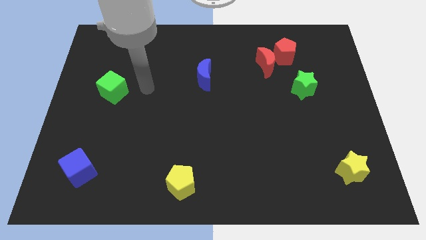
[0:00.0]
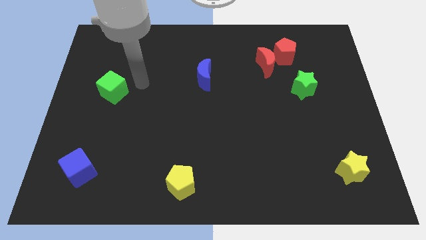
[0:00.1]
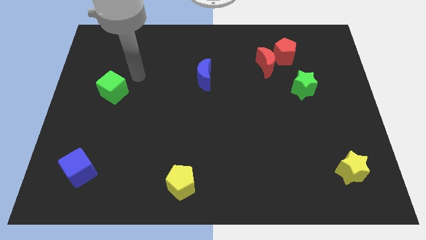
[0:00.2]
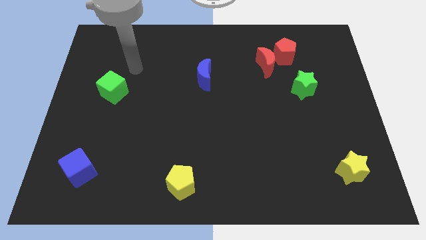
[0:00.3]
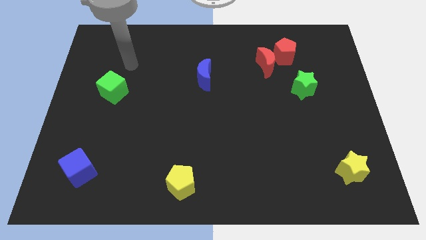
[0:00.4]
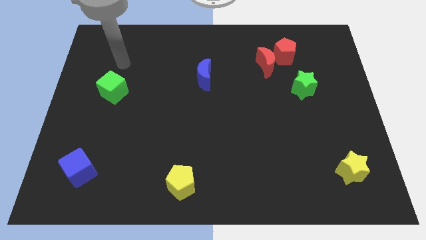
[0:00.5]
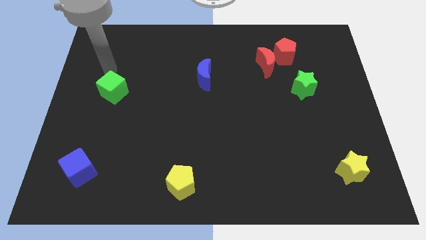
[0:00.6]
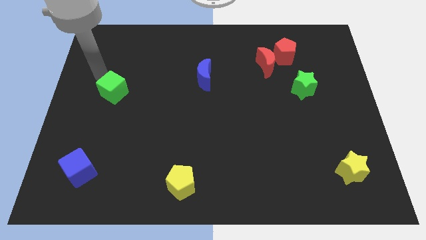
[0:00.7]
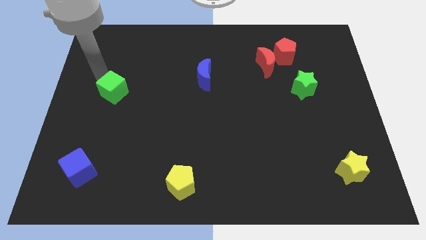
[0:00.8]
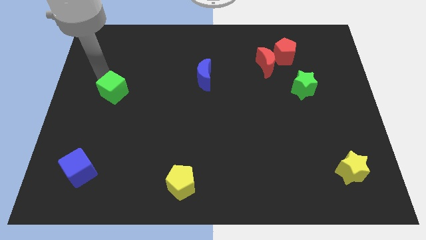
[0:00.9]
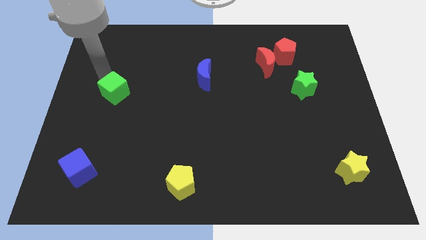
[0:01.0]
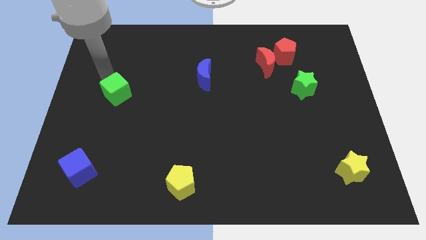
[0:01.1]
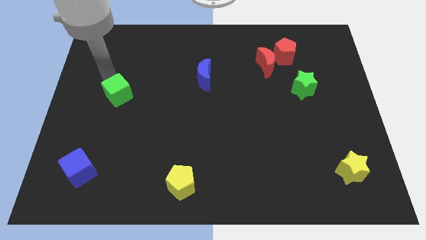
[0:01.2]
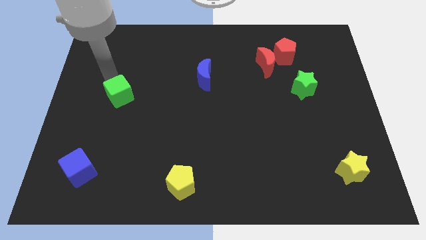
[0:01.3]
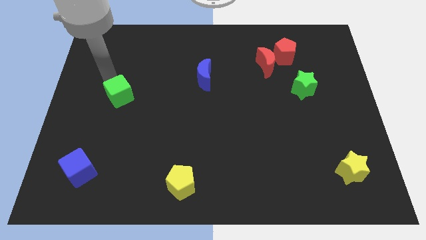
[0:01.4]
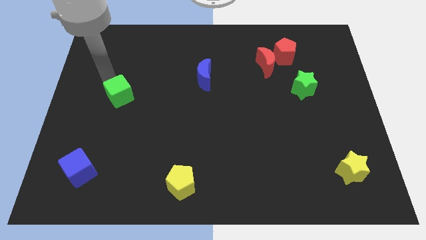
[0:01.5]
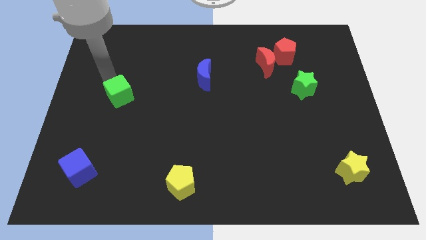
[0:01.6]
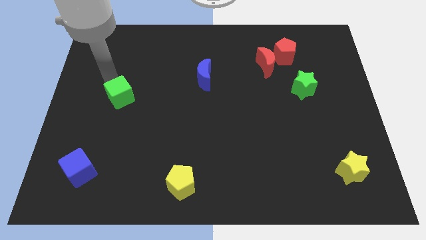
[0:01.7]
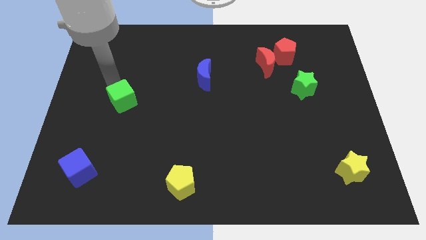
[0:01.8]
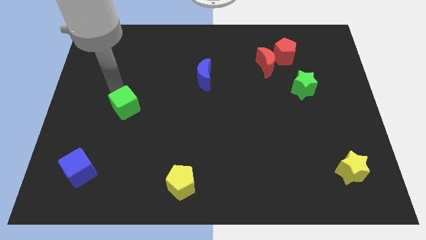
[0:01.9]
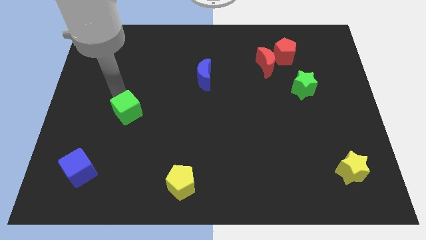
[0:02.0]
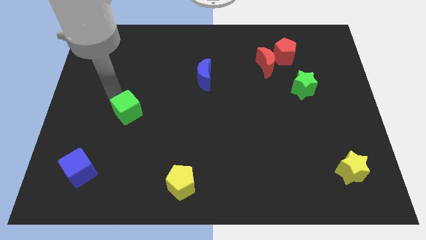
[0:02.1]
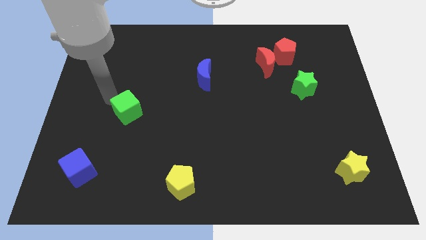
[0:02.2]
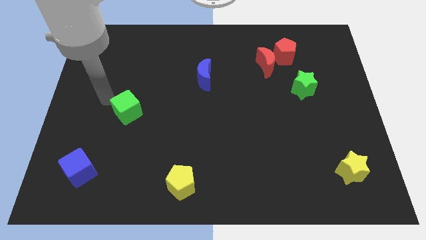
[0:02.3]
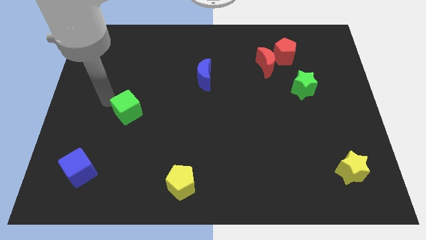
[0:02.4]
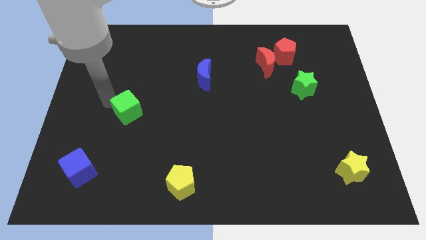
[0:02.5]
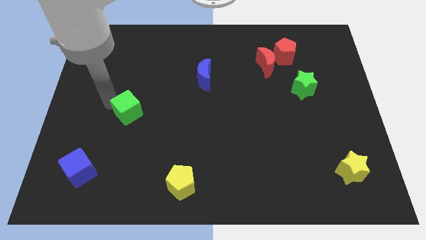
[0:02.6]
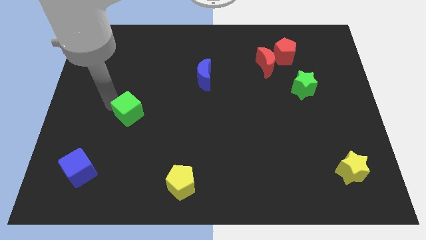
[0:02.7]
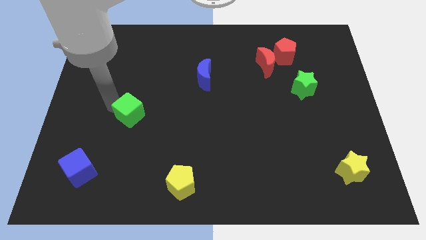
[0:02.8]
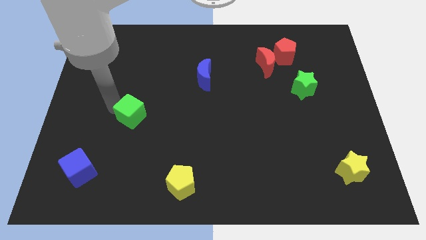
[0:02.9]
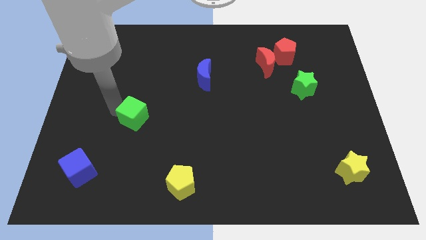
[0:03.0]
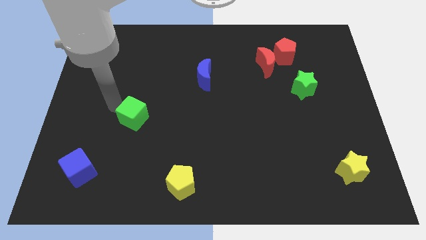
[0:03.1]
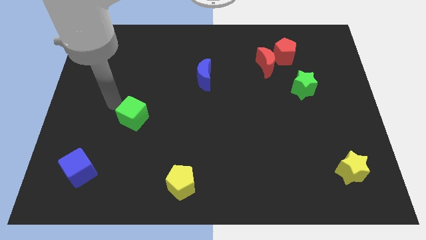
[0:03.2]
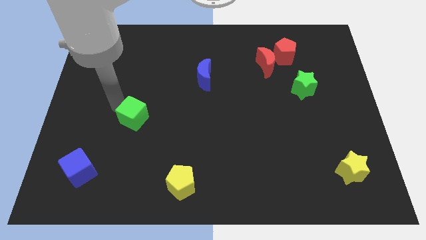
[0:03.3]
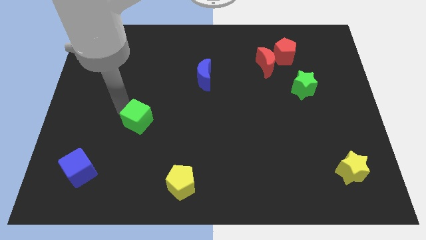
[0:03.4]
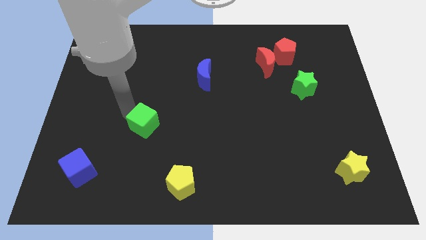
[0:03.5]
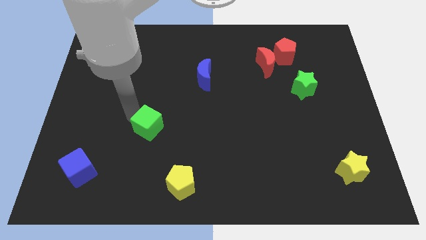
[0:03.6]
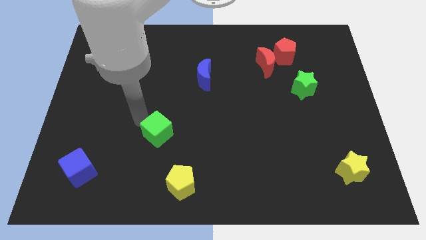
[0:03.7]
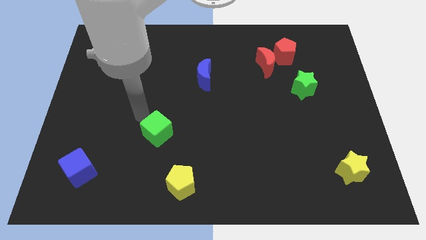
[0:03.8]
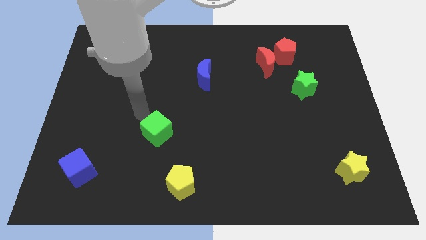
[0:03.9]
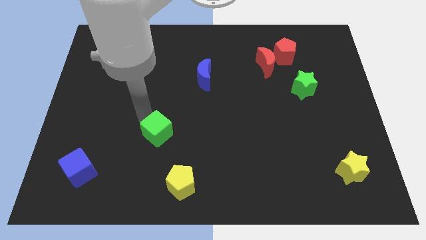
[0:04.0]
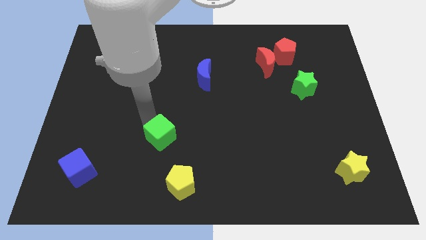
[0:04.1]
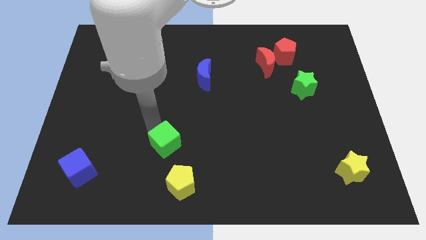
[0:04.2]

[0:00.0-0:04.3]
move the green cube down and then right

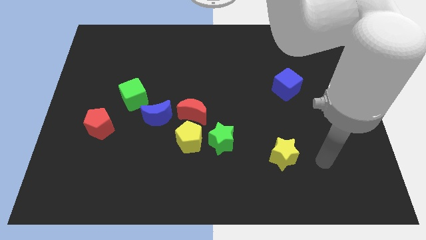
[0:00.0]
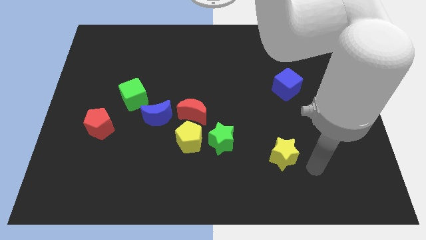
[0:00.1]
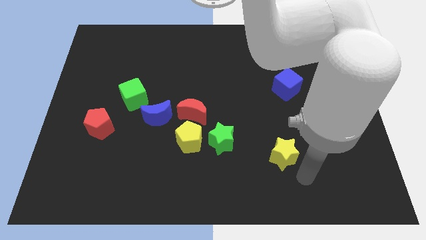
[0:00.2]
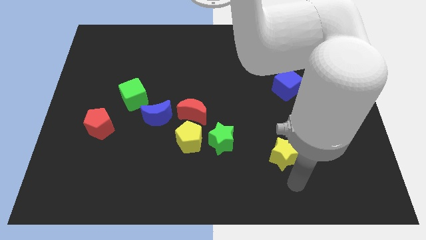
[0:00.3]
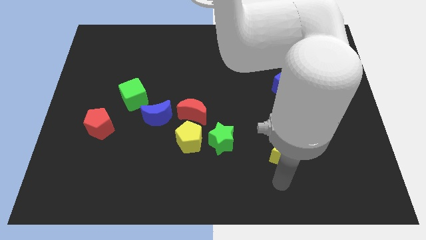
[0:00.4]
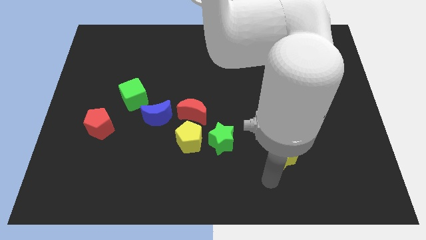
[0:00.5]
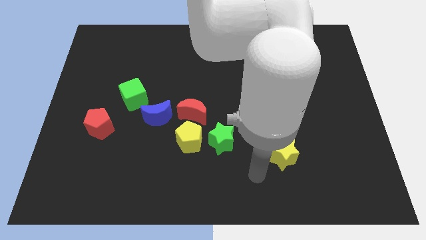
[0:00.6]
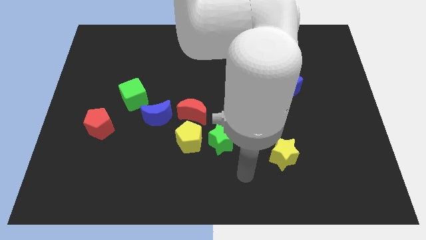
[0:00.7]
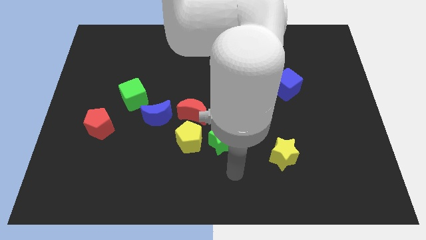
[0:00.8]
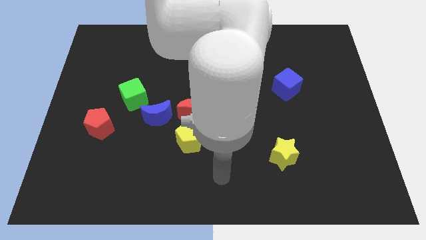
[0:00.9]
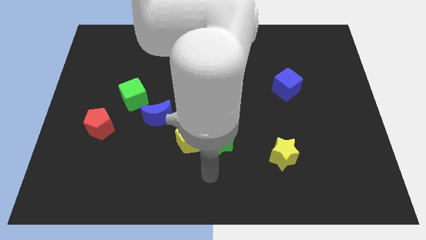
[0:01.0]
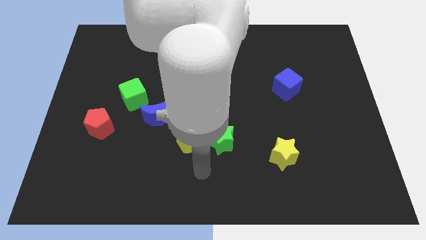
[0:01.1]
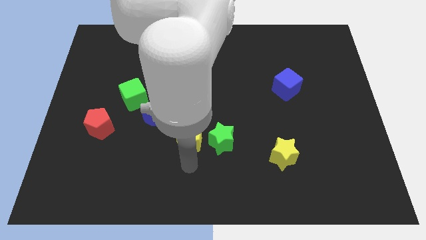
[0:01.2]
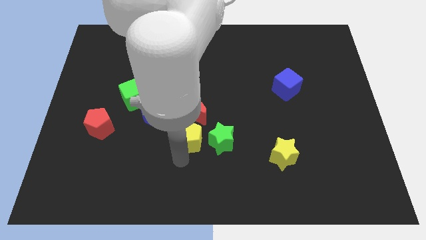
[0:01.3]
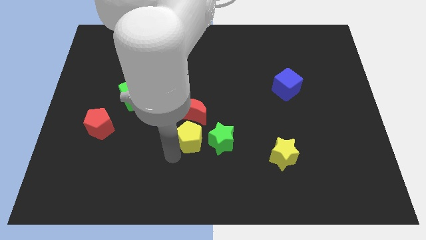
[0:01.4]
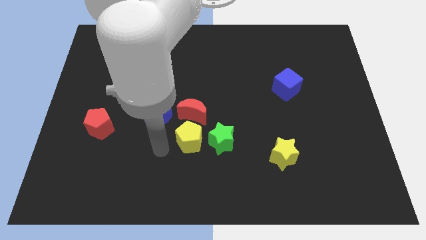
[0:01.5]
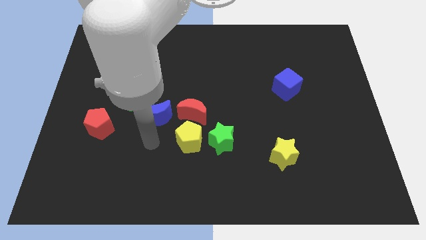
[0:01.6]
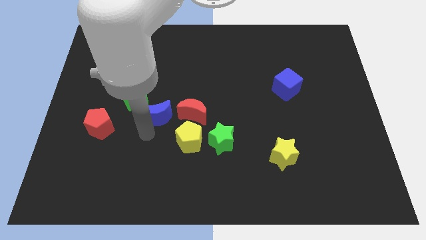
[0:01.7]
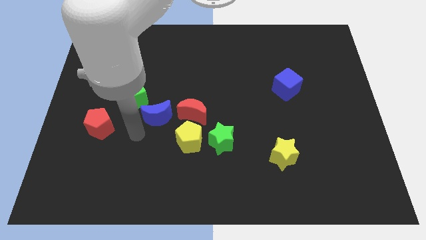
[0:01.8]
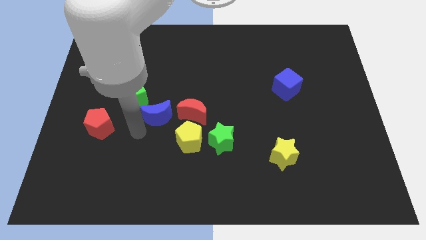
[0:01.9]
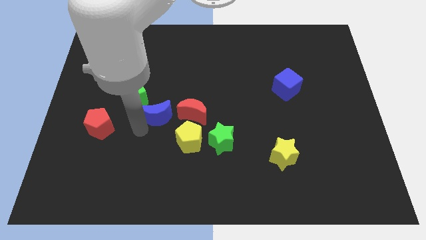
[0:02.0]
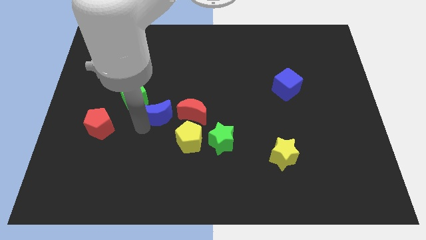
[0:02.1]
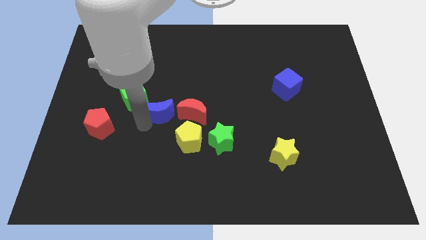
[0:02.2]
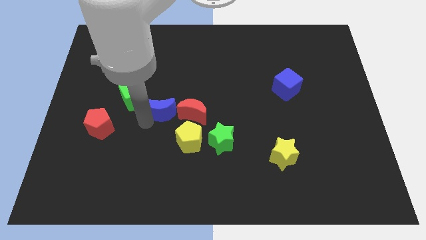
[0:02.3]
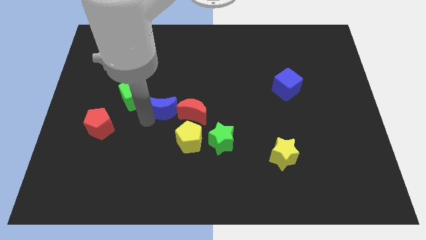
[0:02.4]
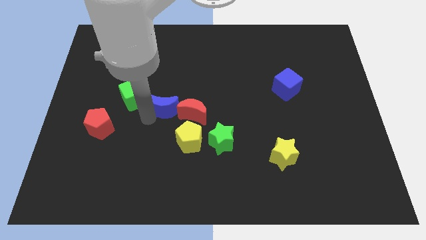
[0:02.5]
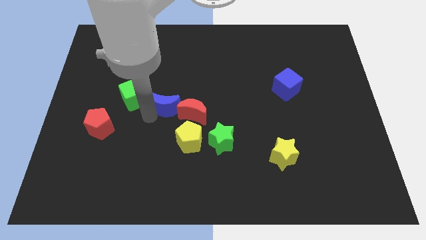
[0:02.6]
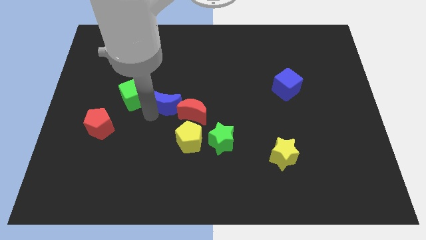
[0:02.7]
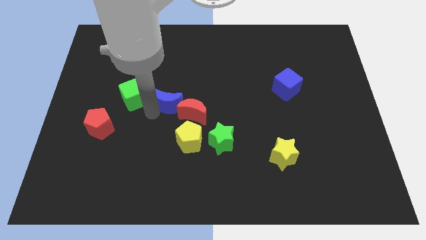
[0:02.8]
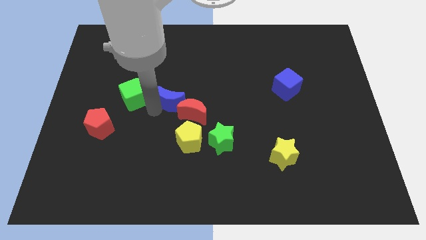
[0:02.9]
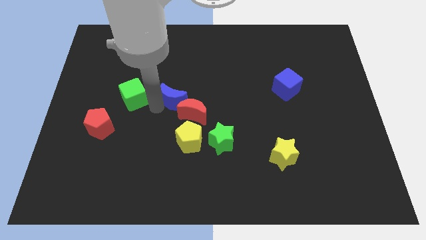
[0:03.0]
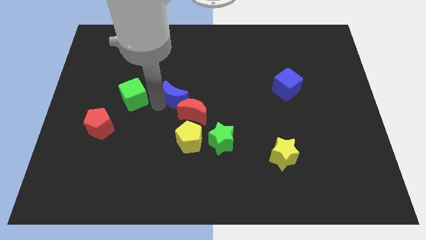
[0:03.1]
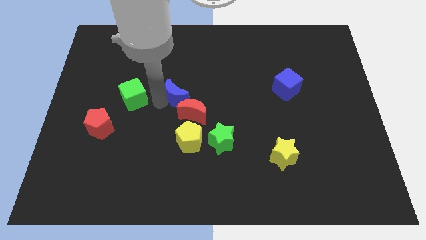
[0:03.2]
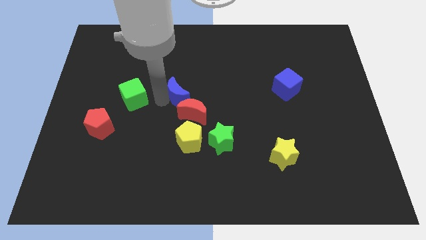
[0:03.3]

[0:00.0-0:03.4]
move the blue moon somewhat diagonally up and right

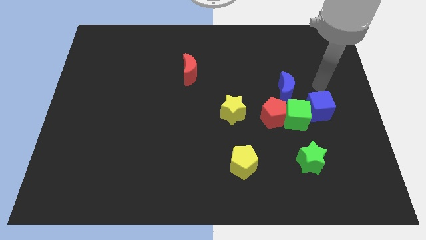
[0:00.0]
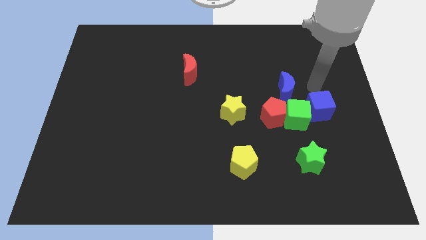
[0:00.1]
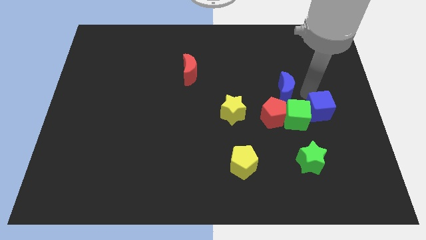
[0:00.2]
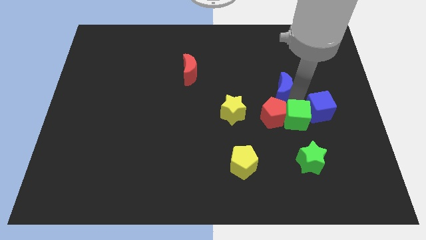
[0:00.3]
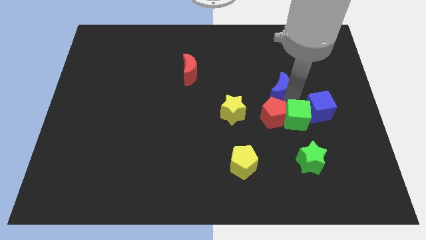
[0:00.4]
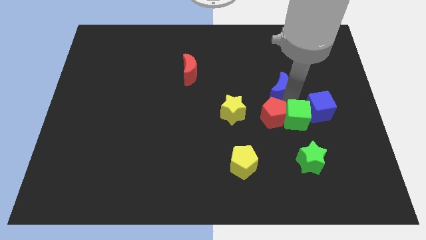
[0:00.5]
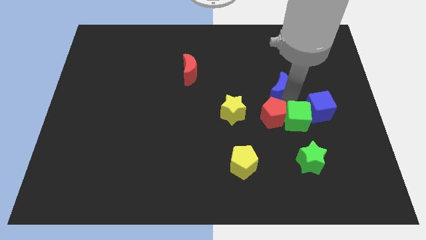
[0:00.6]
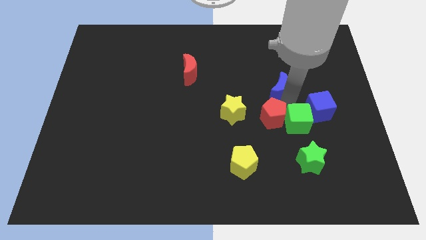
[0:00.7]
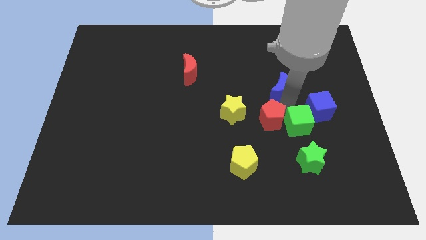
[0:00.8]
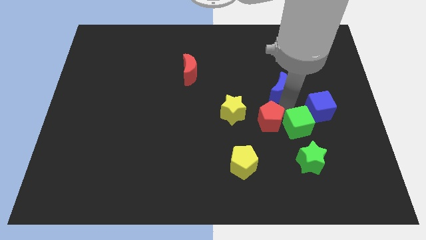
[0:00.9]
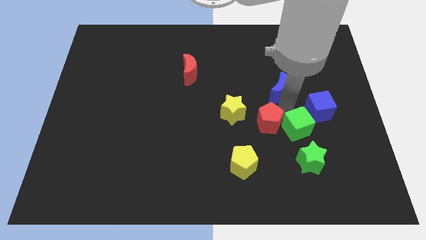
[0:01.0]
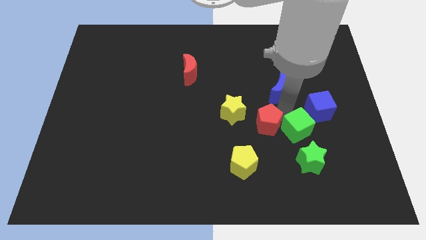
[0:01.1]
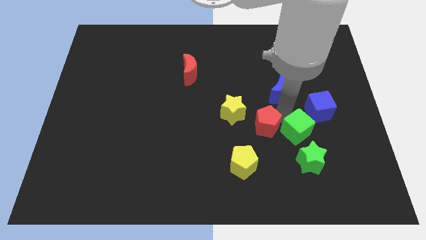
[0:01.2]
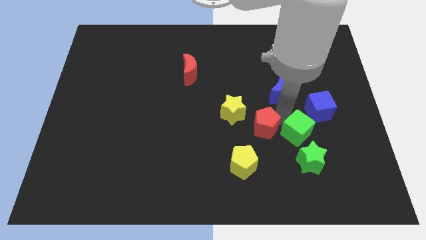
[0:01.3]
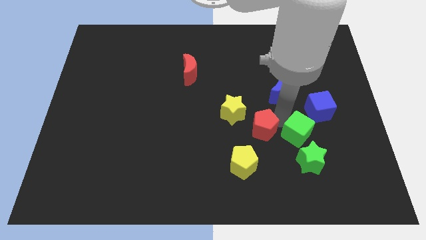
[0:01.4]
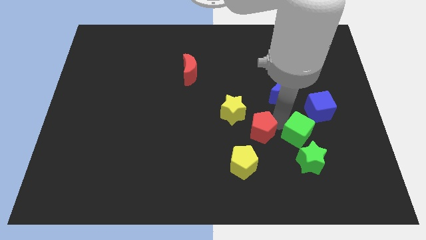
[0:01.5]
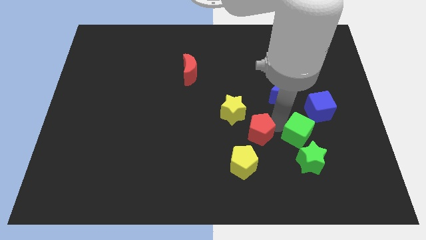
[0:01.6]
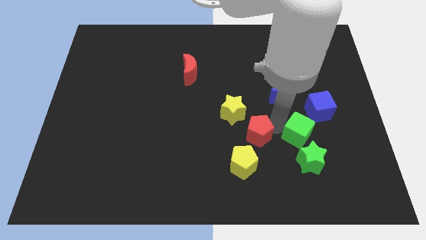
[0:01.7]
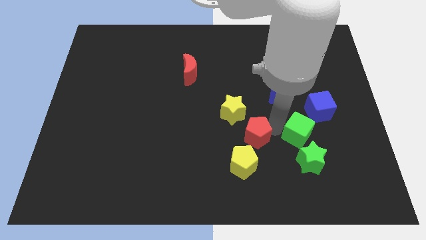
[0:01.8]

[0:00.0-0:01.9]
slide the red pentagon a little down and left diagonally
